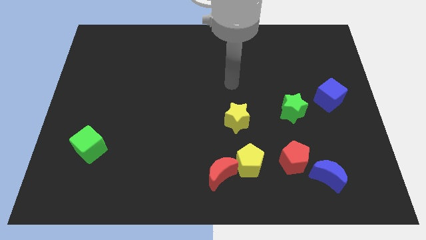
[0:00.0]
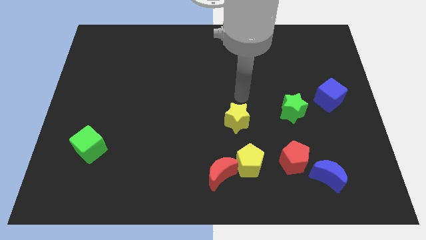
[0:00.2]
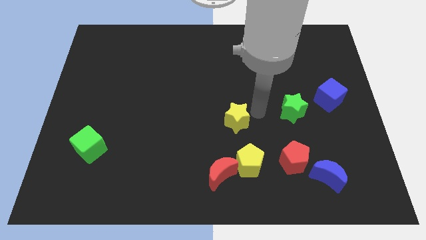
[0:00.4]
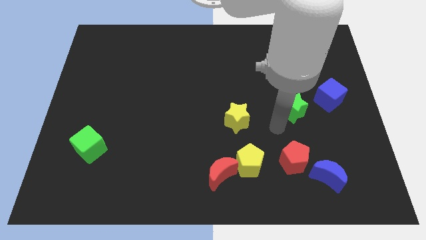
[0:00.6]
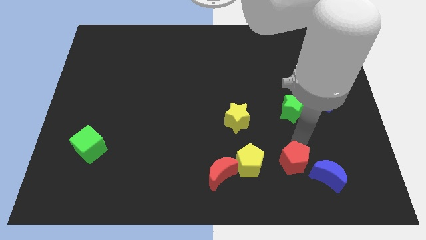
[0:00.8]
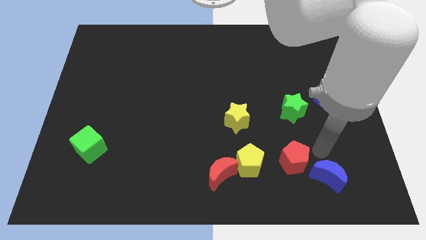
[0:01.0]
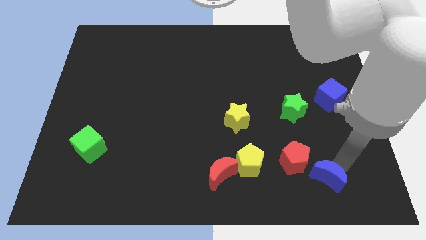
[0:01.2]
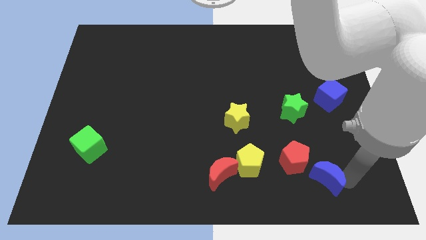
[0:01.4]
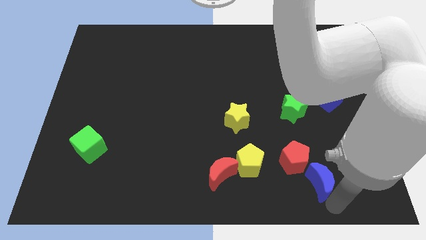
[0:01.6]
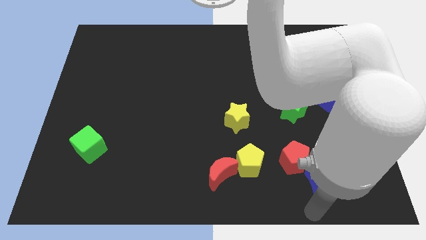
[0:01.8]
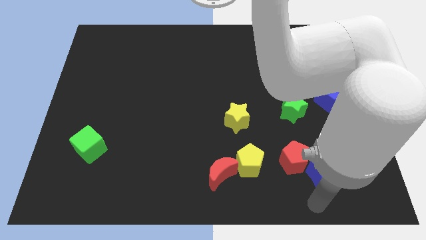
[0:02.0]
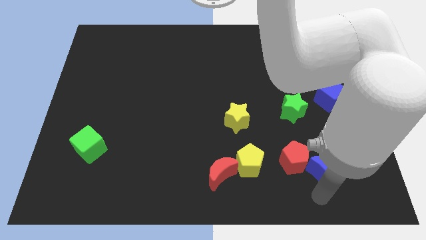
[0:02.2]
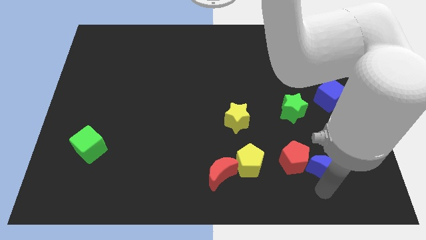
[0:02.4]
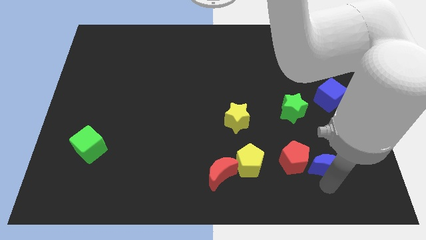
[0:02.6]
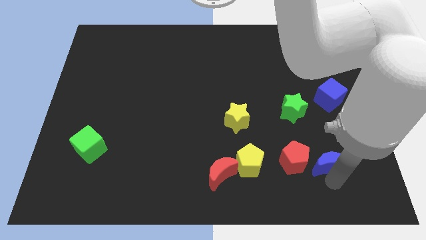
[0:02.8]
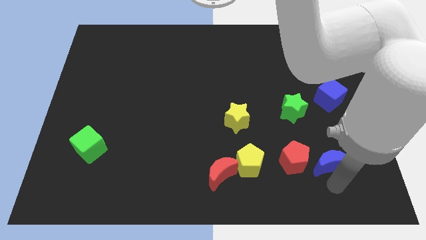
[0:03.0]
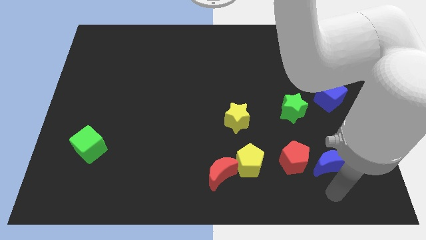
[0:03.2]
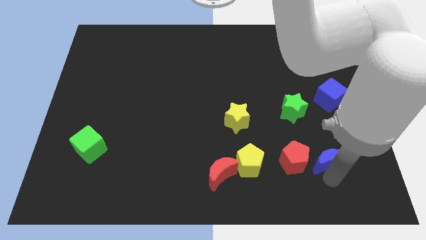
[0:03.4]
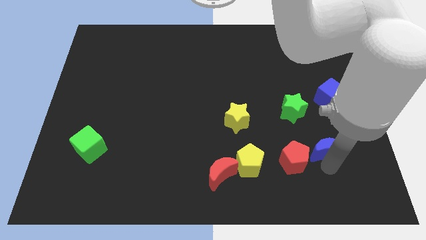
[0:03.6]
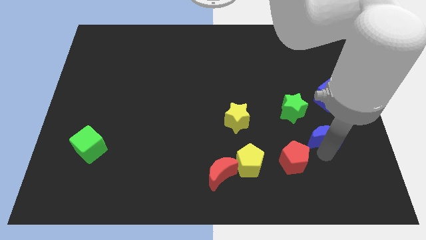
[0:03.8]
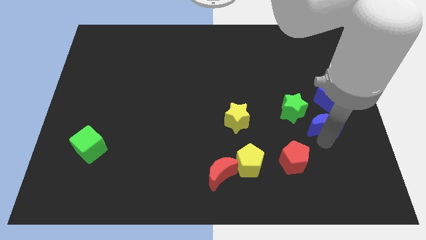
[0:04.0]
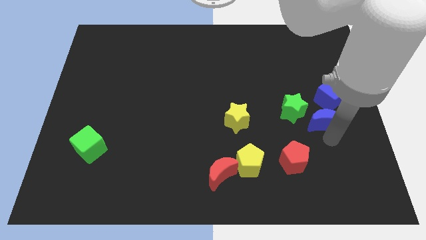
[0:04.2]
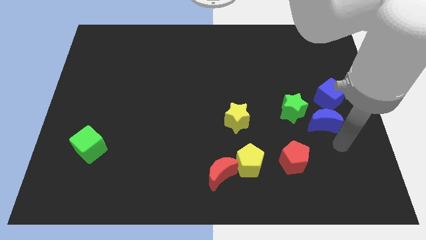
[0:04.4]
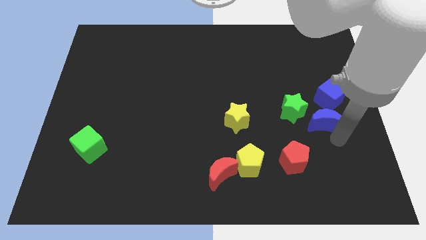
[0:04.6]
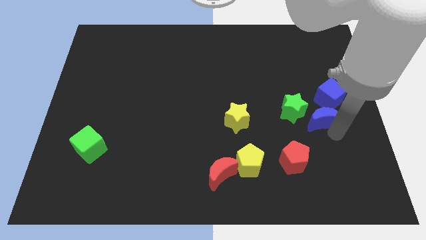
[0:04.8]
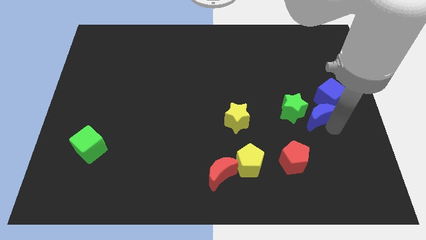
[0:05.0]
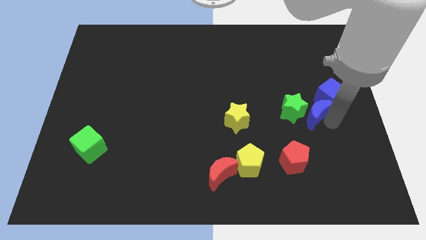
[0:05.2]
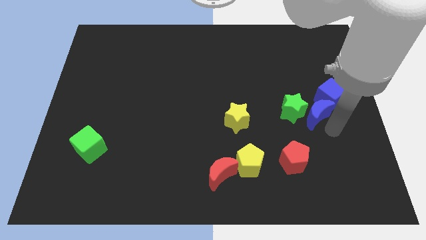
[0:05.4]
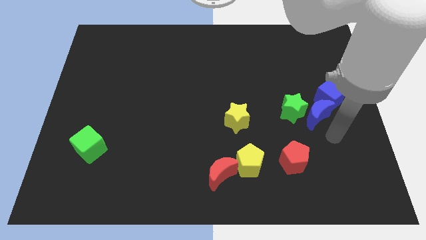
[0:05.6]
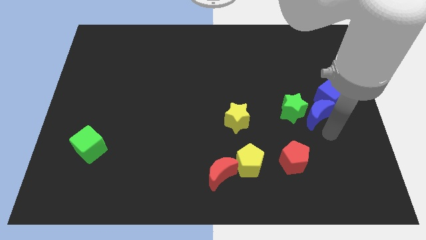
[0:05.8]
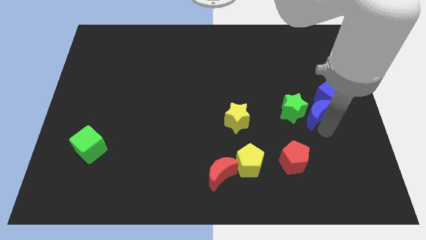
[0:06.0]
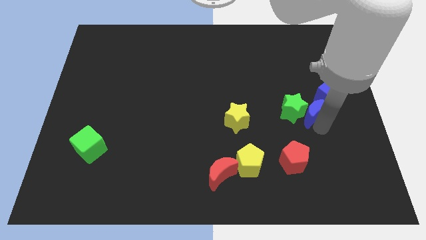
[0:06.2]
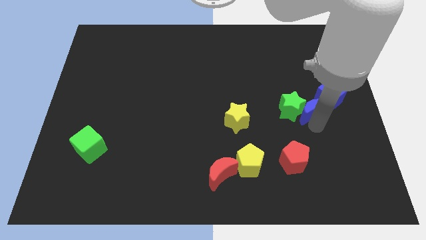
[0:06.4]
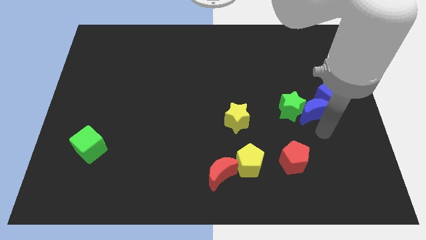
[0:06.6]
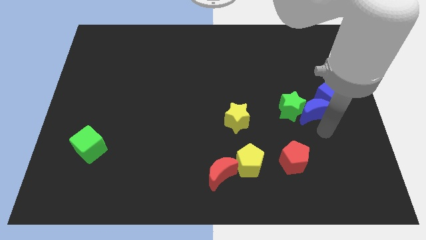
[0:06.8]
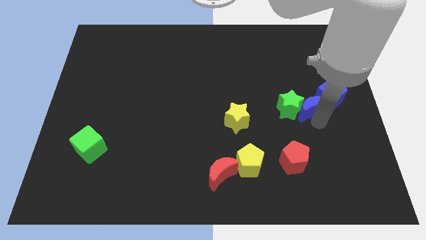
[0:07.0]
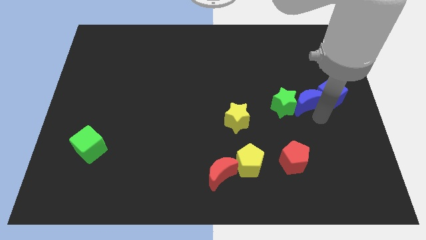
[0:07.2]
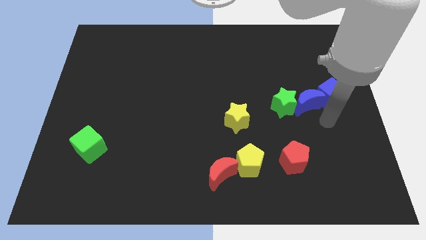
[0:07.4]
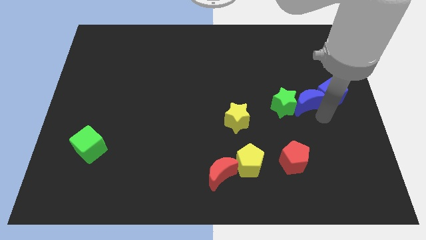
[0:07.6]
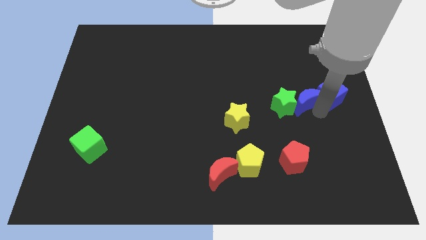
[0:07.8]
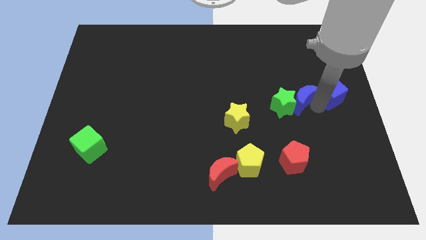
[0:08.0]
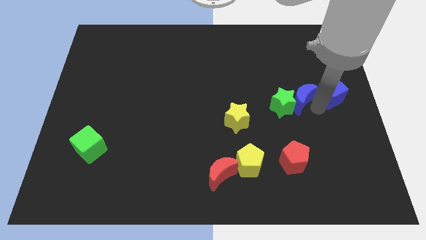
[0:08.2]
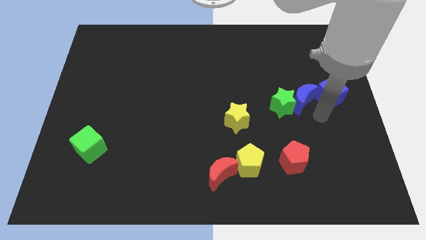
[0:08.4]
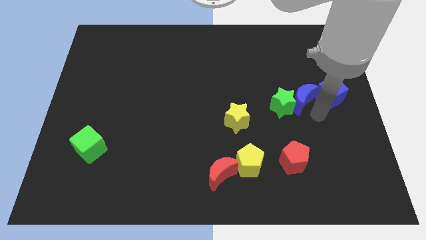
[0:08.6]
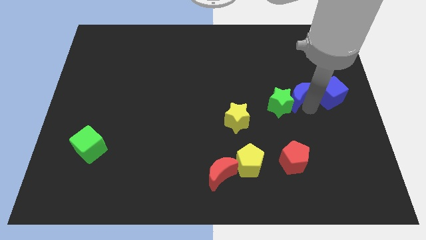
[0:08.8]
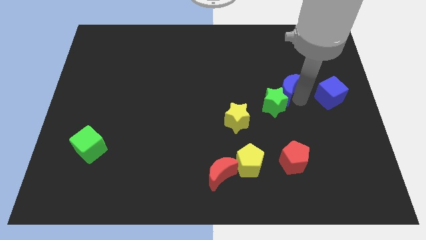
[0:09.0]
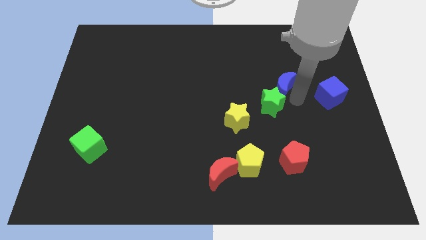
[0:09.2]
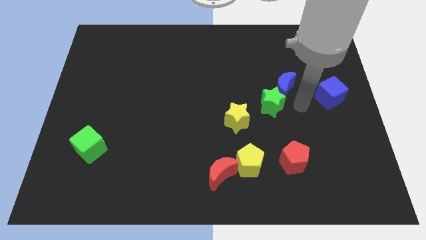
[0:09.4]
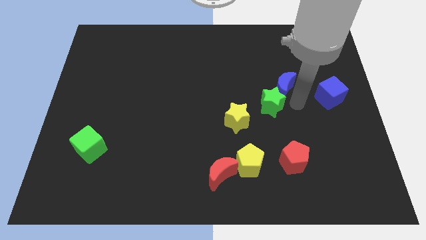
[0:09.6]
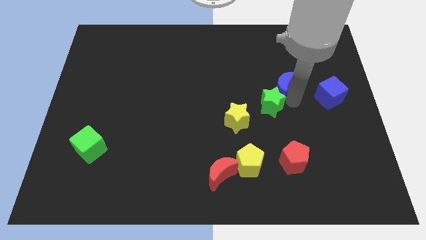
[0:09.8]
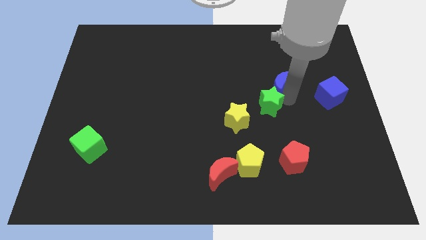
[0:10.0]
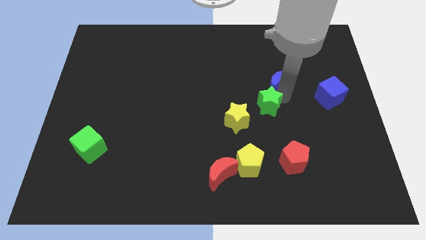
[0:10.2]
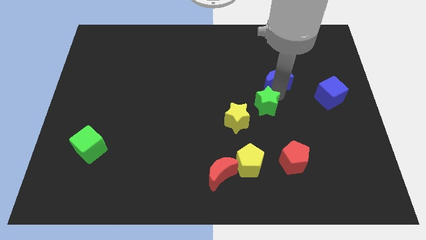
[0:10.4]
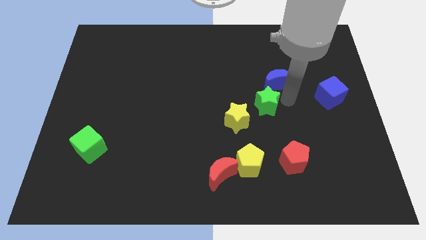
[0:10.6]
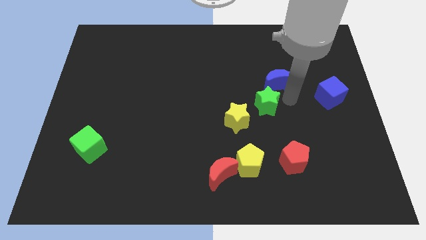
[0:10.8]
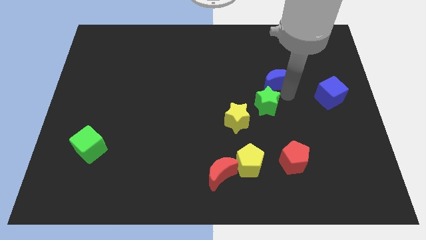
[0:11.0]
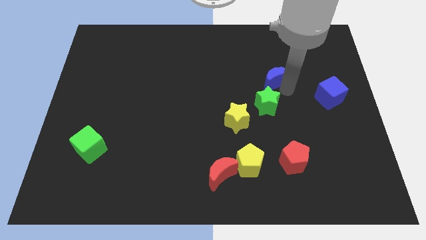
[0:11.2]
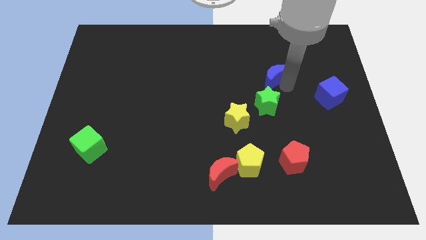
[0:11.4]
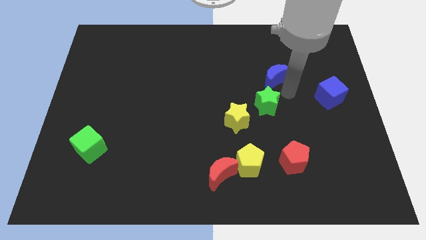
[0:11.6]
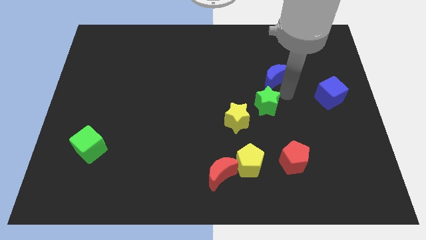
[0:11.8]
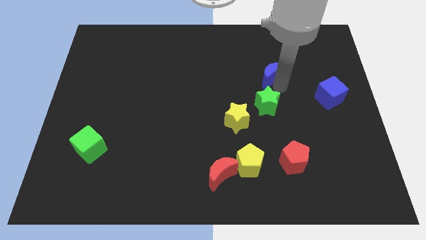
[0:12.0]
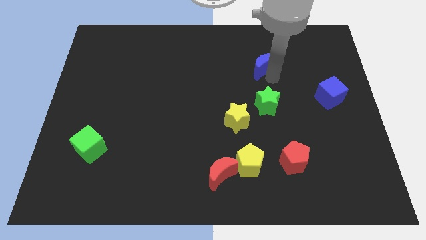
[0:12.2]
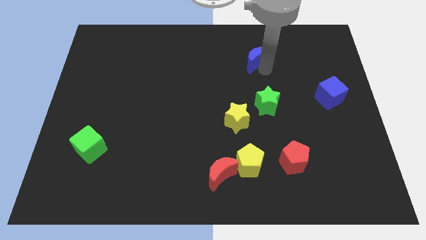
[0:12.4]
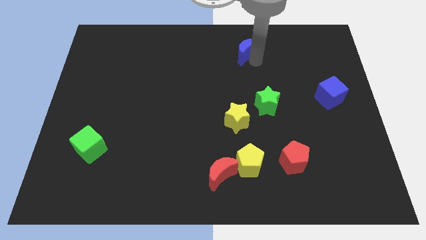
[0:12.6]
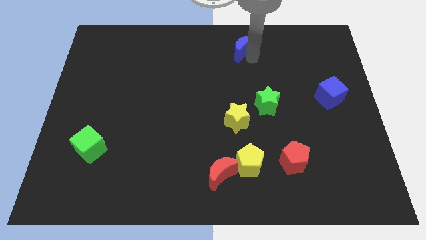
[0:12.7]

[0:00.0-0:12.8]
push the blue moon to the top

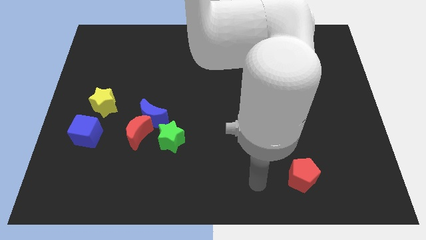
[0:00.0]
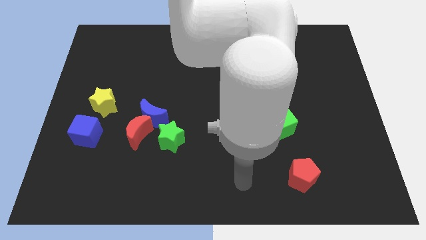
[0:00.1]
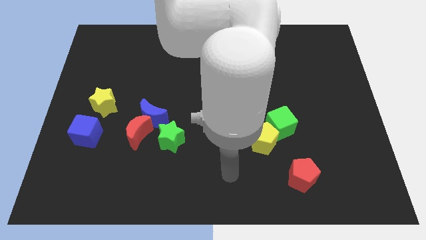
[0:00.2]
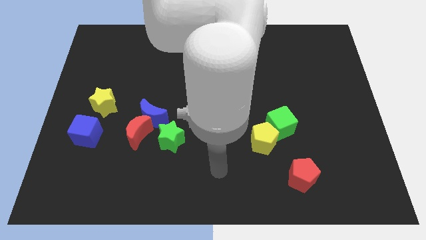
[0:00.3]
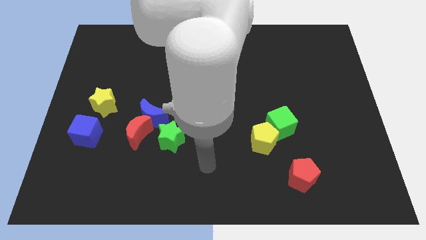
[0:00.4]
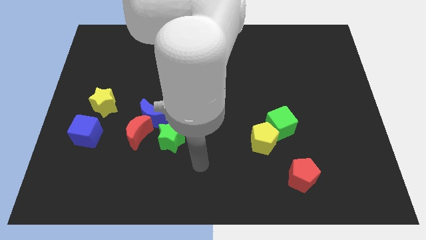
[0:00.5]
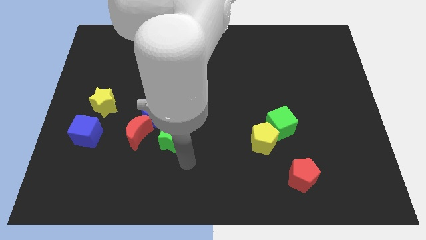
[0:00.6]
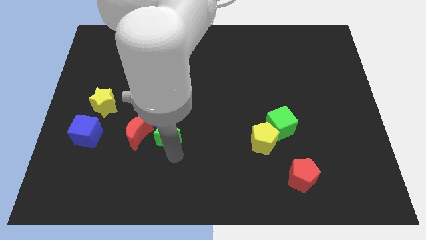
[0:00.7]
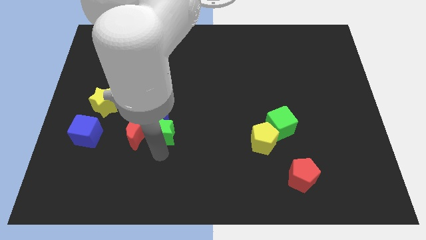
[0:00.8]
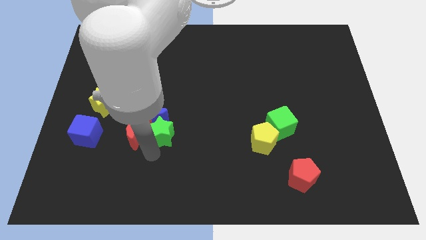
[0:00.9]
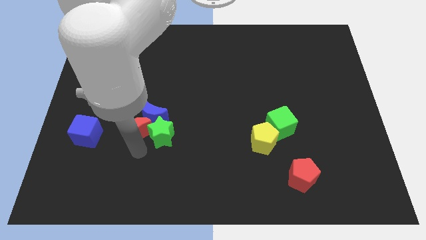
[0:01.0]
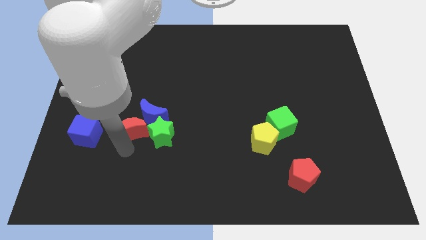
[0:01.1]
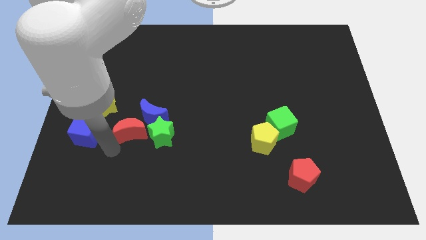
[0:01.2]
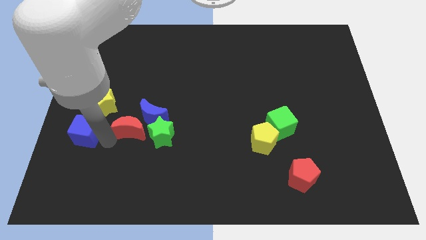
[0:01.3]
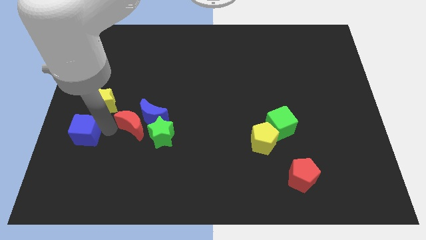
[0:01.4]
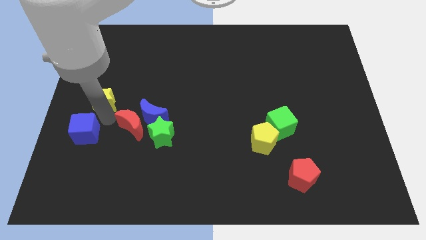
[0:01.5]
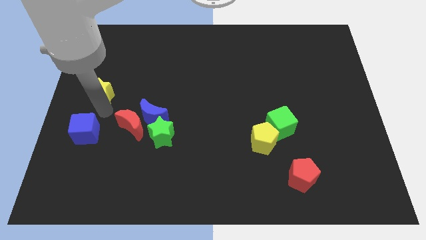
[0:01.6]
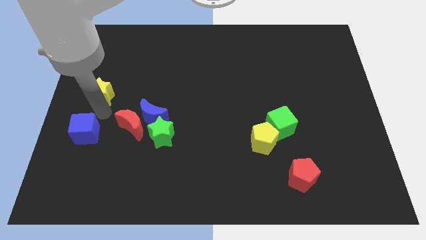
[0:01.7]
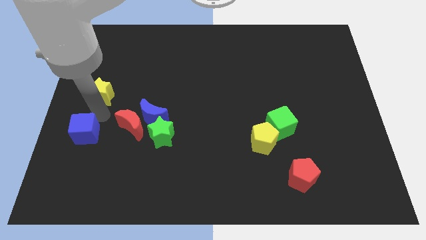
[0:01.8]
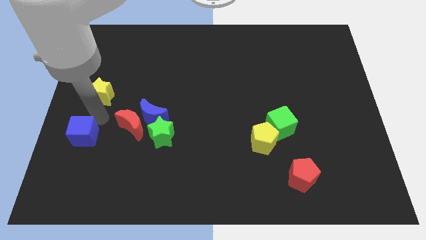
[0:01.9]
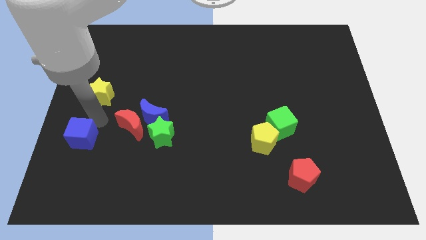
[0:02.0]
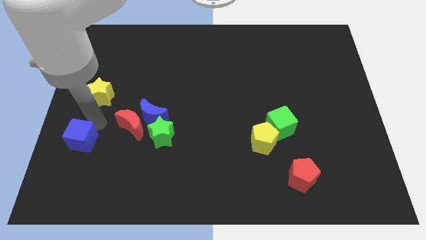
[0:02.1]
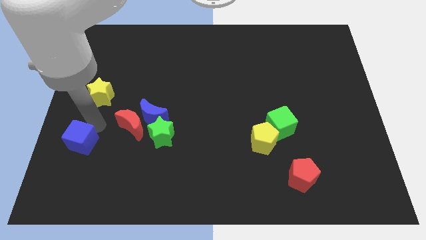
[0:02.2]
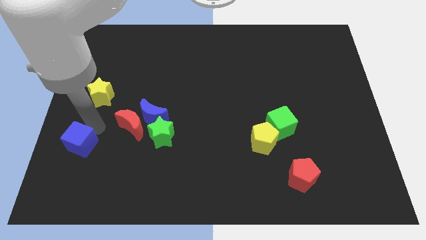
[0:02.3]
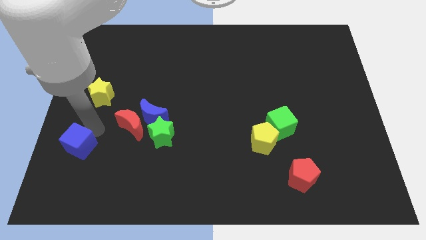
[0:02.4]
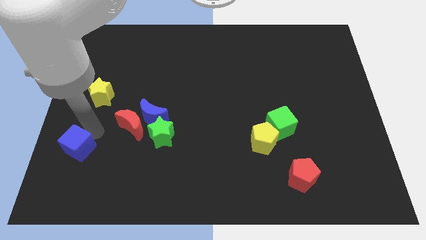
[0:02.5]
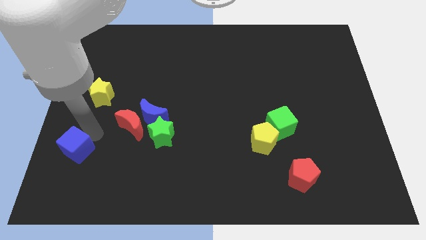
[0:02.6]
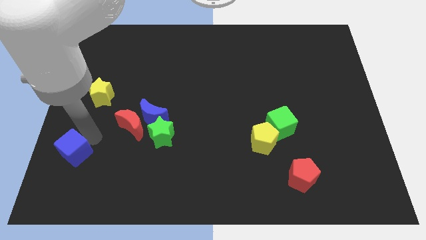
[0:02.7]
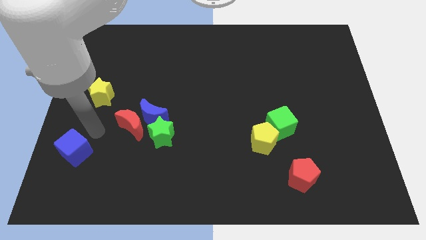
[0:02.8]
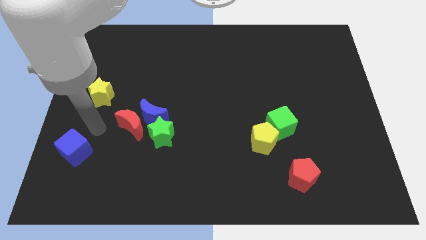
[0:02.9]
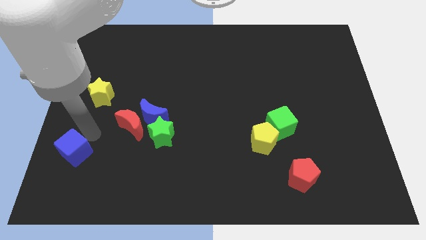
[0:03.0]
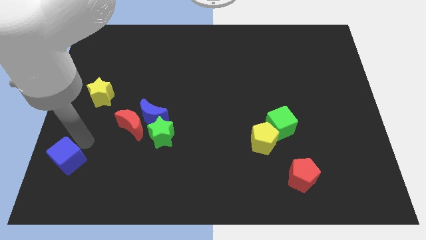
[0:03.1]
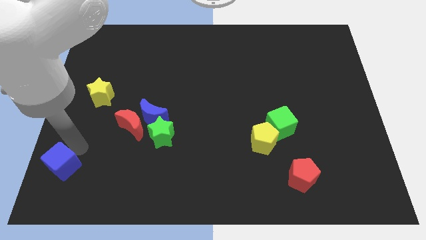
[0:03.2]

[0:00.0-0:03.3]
push the blue cube to the bottom left of the board
